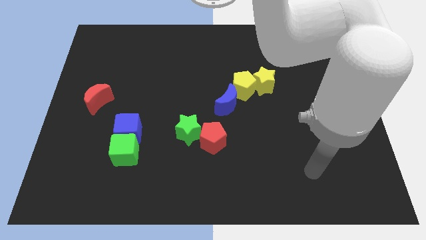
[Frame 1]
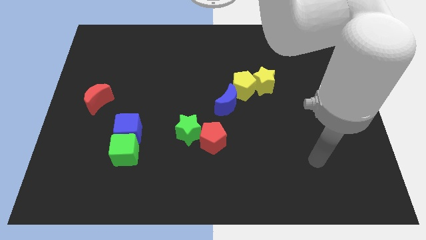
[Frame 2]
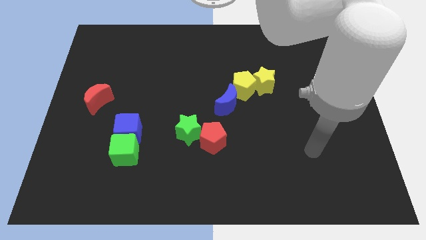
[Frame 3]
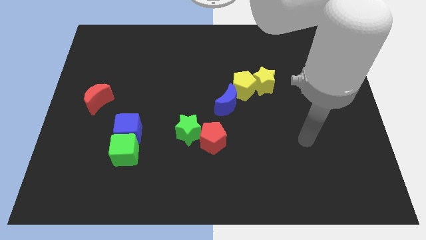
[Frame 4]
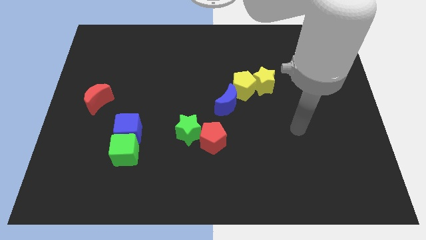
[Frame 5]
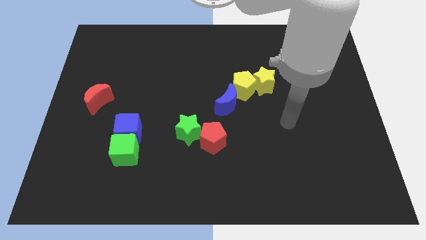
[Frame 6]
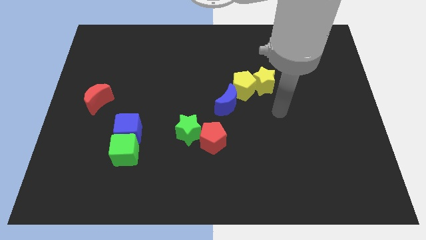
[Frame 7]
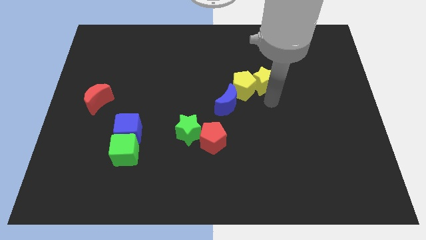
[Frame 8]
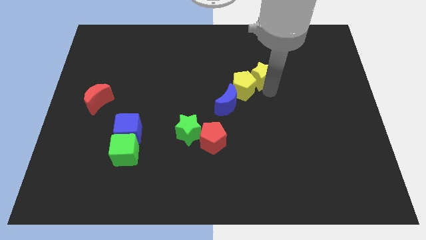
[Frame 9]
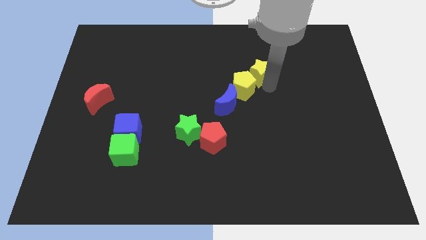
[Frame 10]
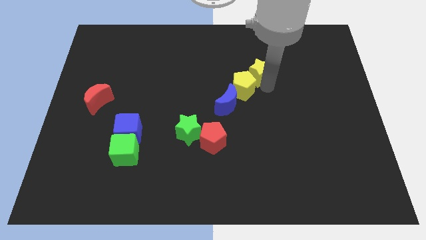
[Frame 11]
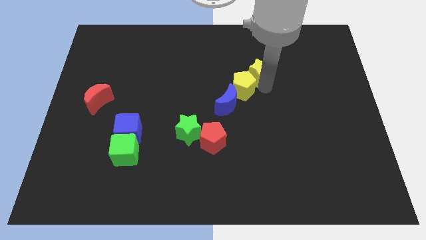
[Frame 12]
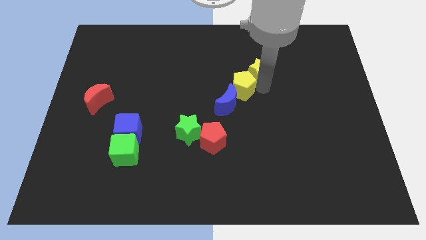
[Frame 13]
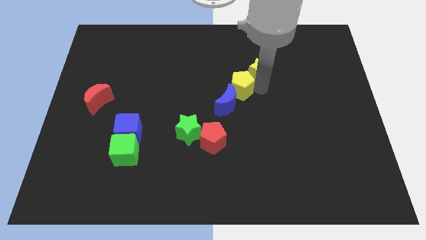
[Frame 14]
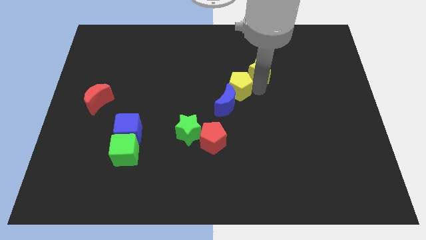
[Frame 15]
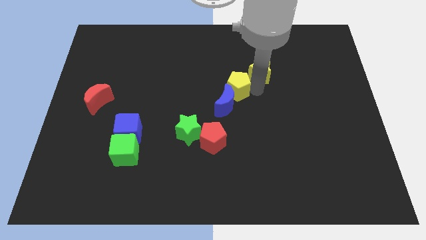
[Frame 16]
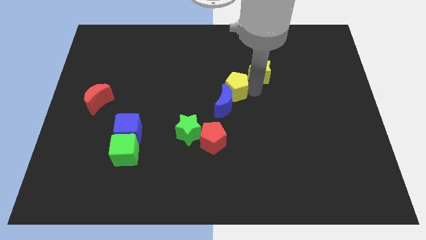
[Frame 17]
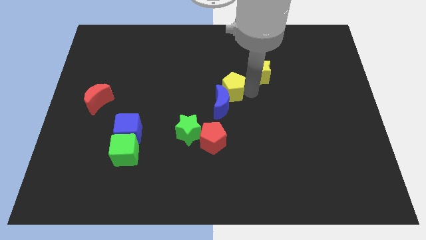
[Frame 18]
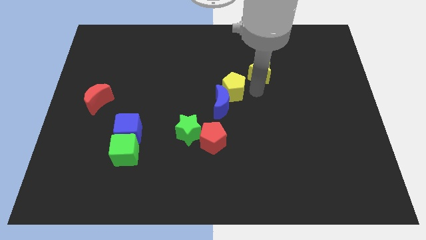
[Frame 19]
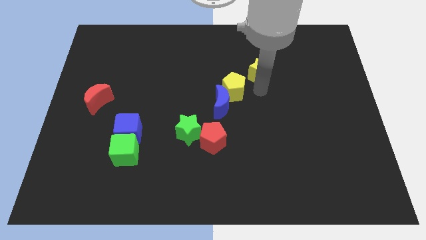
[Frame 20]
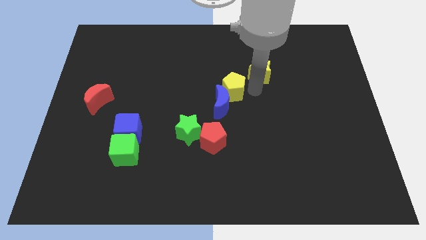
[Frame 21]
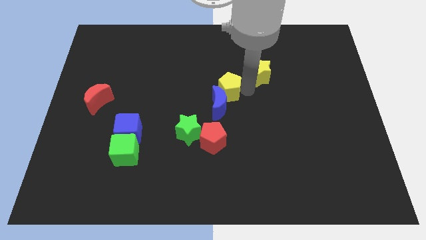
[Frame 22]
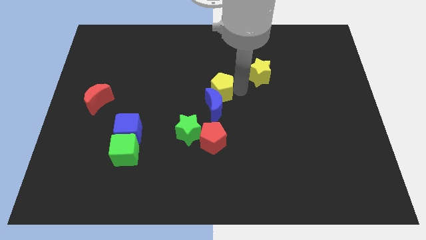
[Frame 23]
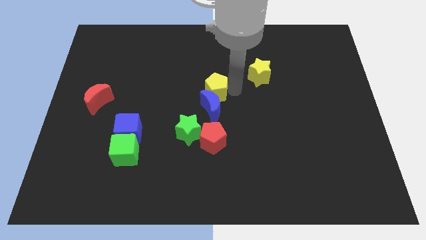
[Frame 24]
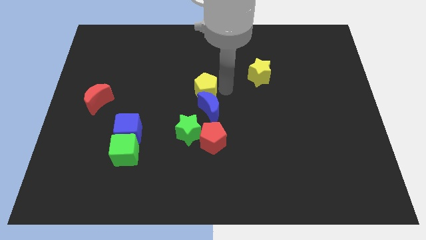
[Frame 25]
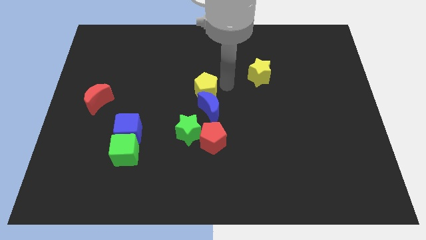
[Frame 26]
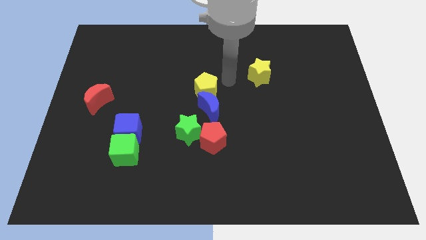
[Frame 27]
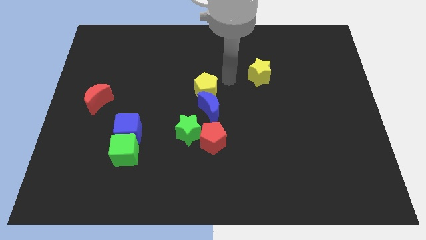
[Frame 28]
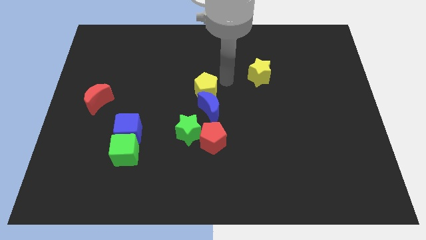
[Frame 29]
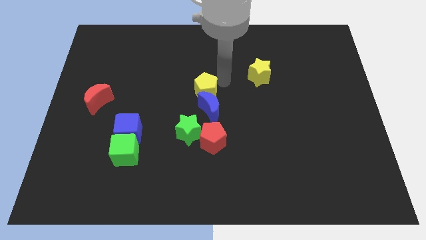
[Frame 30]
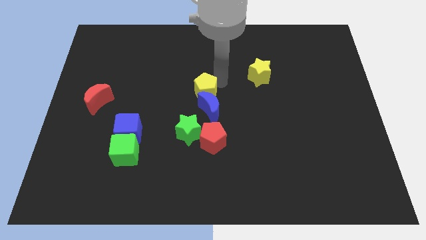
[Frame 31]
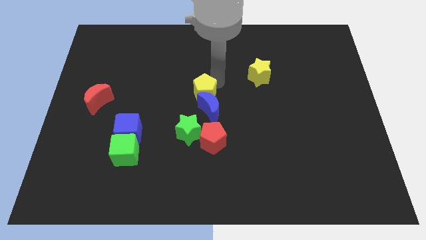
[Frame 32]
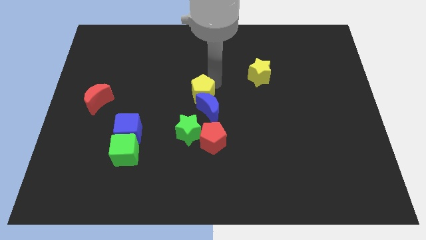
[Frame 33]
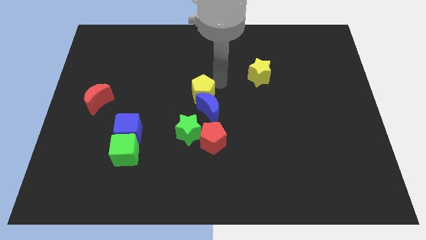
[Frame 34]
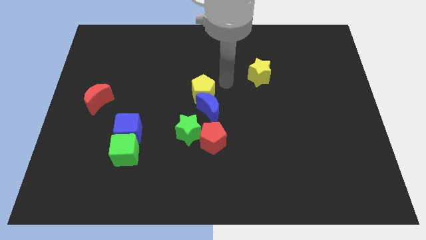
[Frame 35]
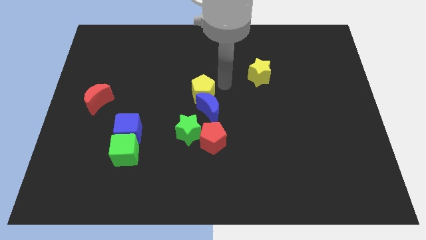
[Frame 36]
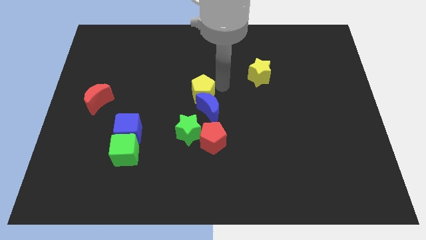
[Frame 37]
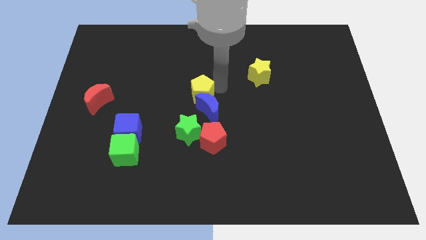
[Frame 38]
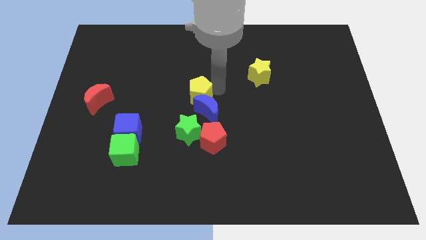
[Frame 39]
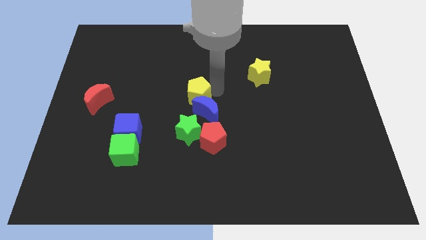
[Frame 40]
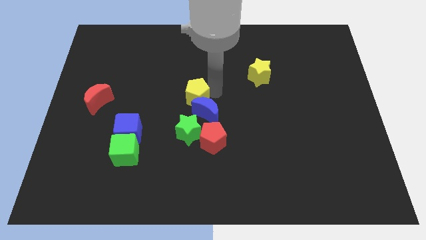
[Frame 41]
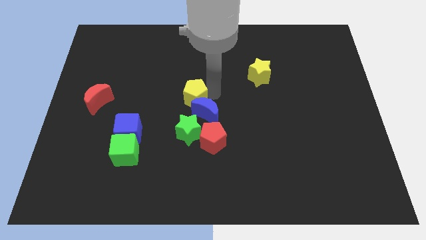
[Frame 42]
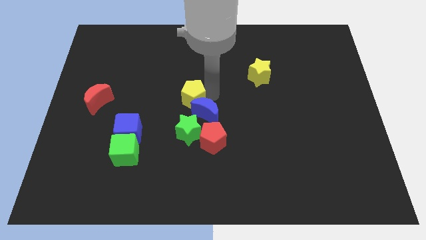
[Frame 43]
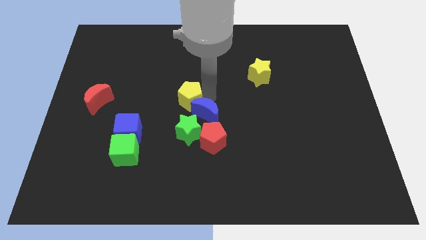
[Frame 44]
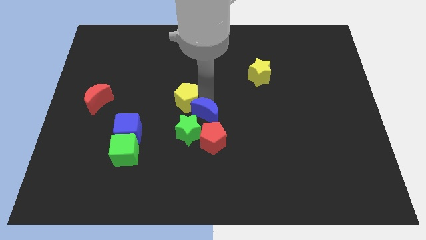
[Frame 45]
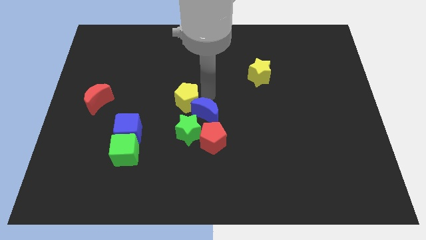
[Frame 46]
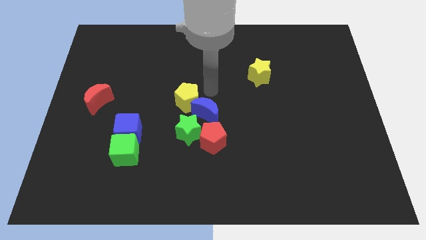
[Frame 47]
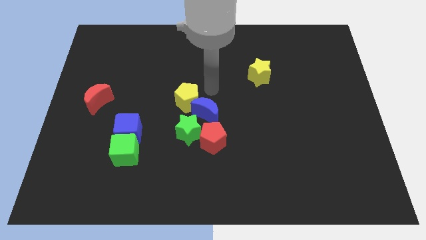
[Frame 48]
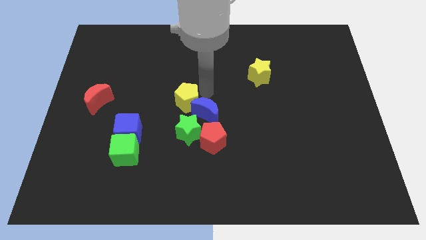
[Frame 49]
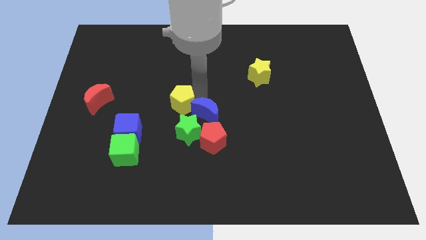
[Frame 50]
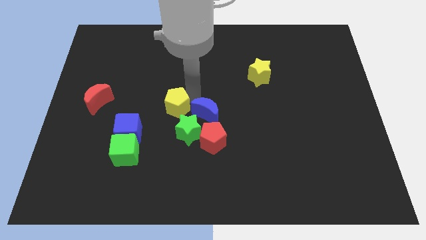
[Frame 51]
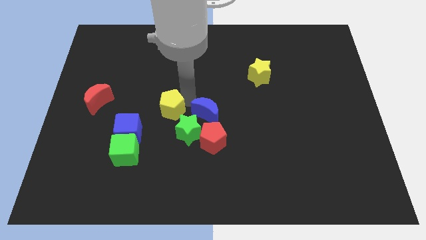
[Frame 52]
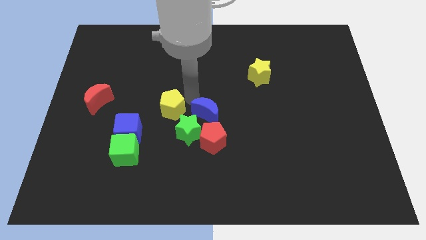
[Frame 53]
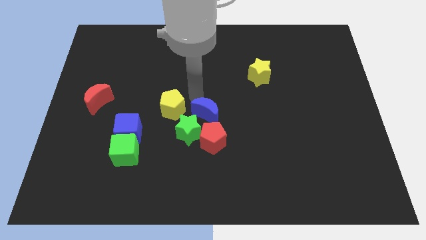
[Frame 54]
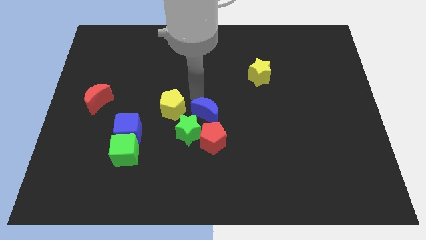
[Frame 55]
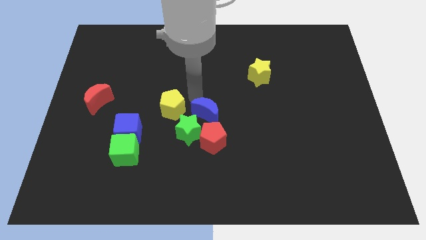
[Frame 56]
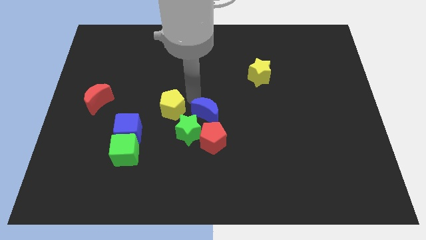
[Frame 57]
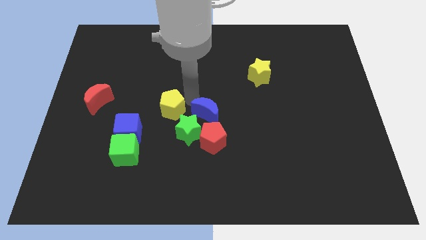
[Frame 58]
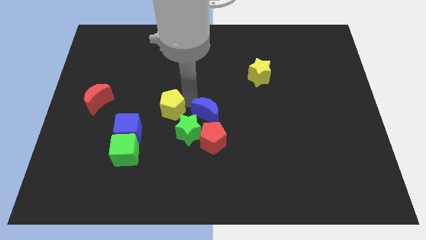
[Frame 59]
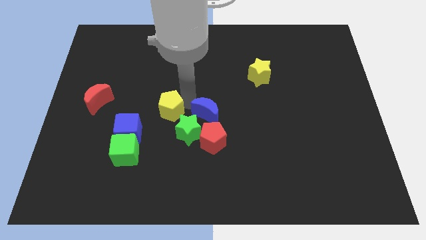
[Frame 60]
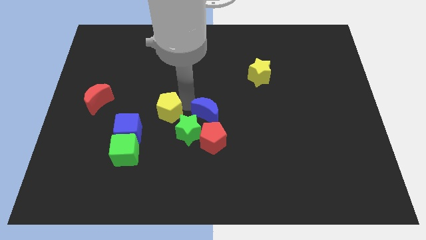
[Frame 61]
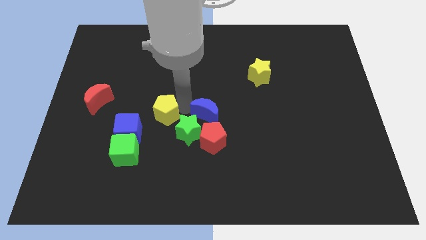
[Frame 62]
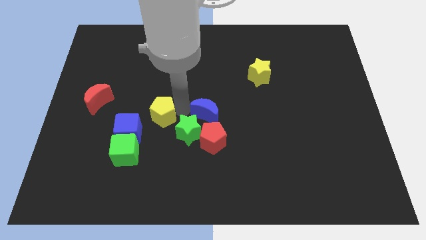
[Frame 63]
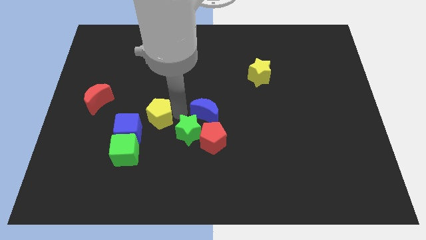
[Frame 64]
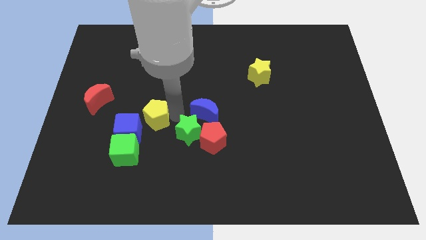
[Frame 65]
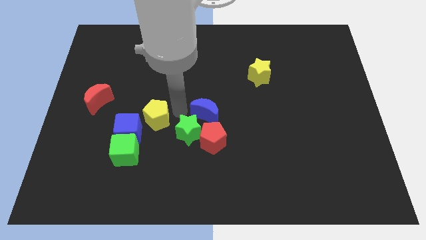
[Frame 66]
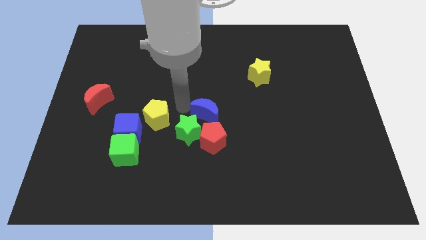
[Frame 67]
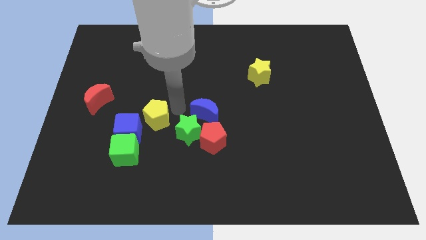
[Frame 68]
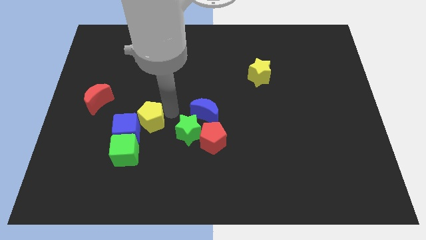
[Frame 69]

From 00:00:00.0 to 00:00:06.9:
move the yellow pentagon close to the blue cube

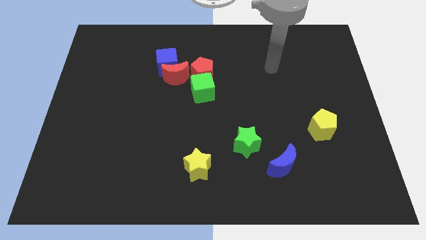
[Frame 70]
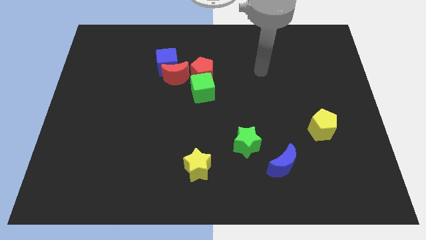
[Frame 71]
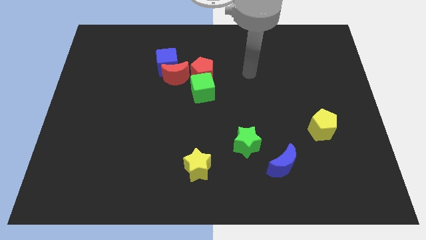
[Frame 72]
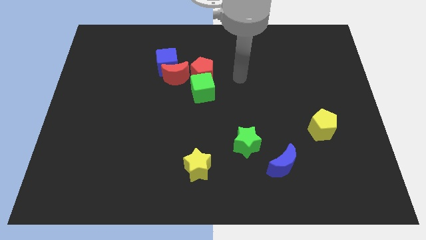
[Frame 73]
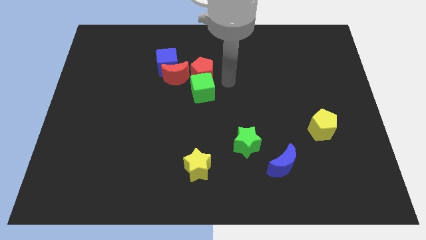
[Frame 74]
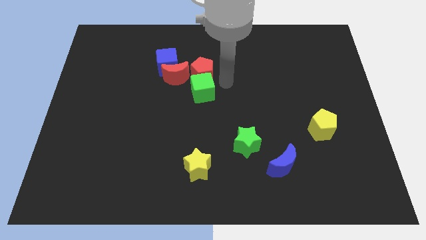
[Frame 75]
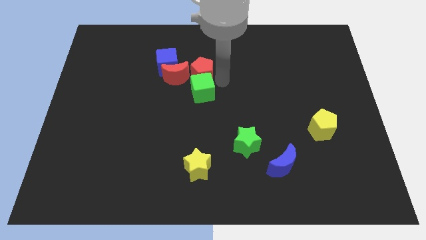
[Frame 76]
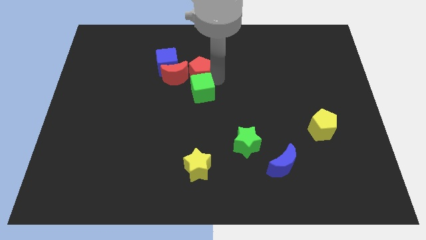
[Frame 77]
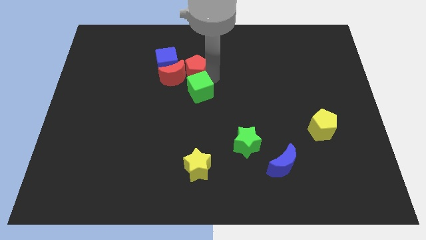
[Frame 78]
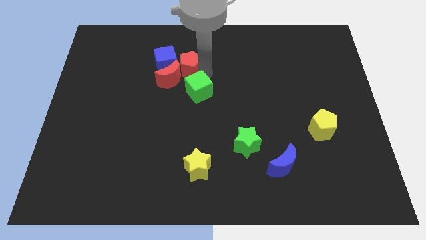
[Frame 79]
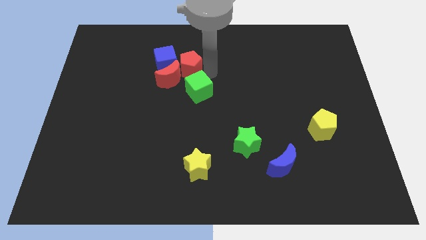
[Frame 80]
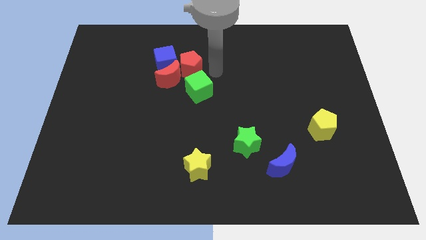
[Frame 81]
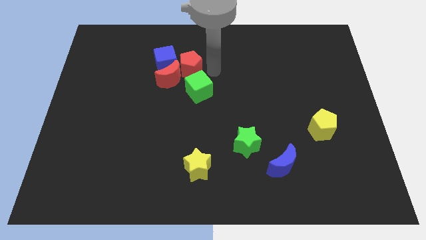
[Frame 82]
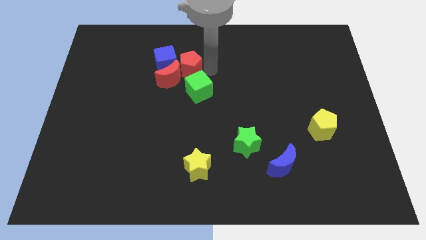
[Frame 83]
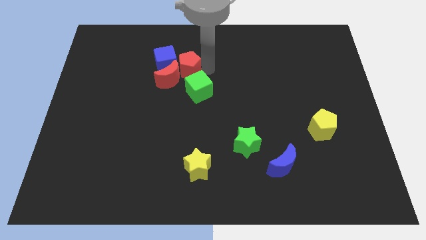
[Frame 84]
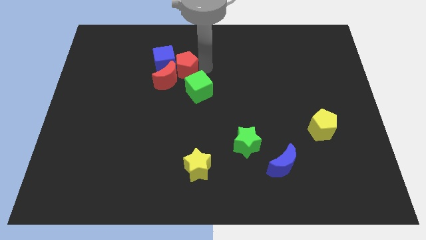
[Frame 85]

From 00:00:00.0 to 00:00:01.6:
slide the red pentagon close to the blue cube
